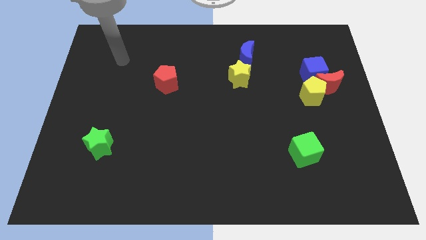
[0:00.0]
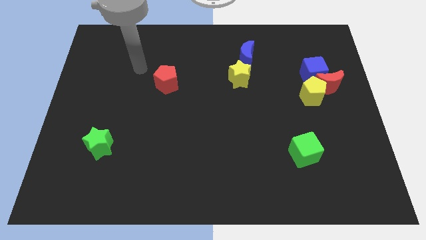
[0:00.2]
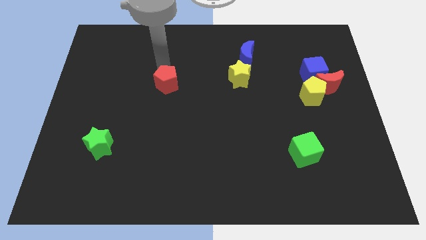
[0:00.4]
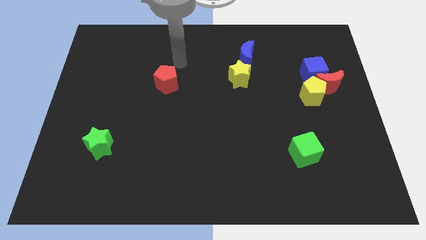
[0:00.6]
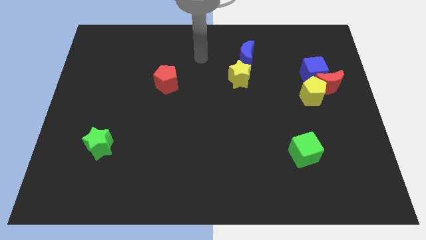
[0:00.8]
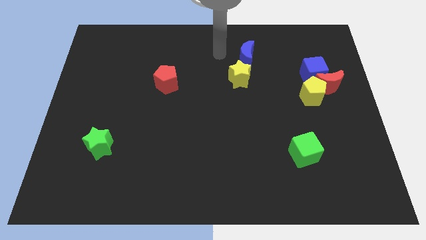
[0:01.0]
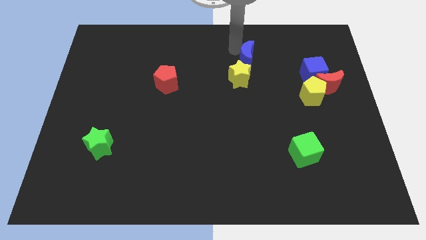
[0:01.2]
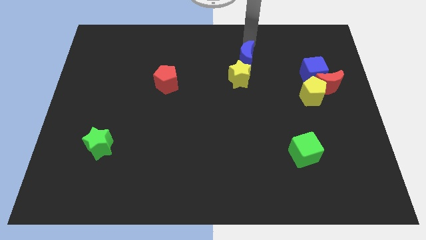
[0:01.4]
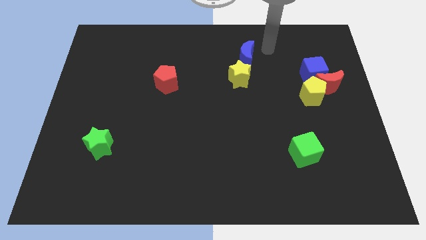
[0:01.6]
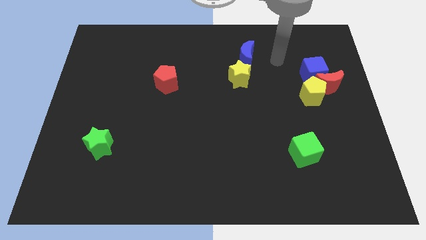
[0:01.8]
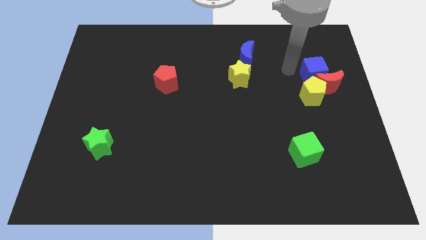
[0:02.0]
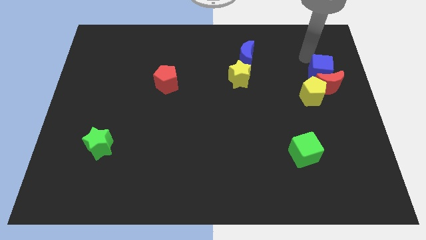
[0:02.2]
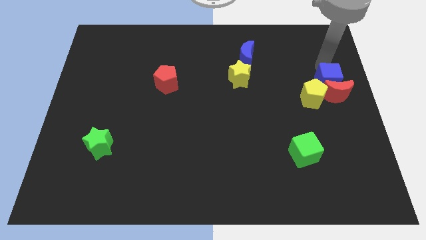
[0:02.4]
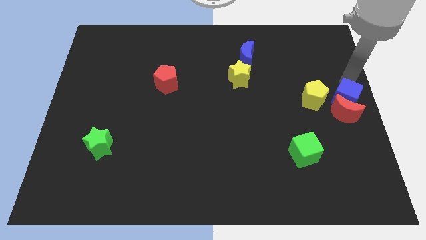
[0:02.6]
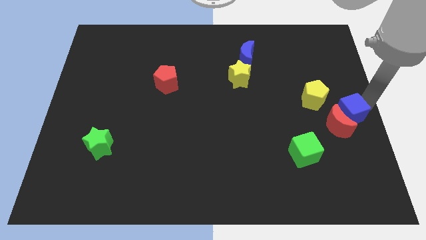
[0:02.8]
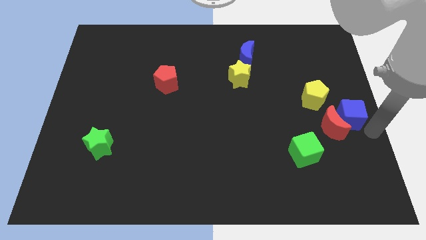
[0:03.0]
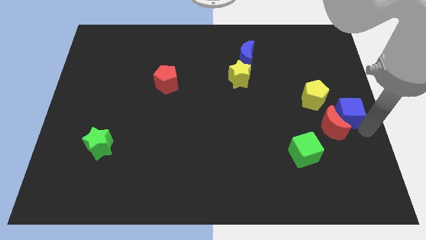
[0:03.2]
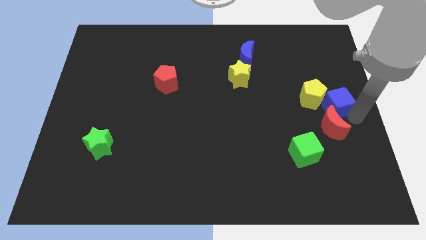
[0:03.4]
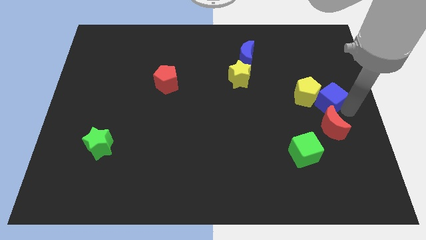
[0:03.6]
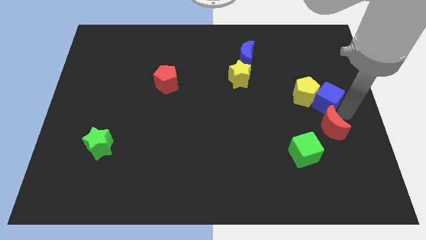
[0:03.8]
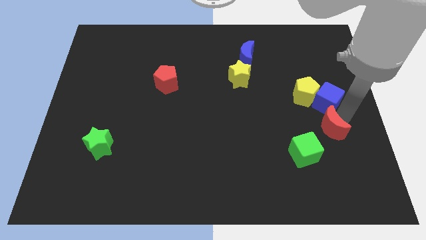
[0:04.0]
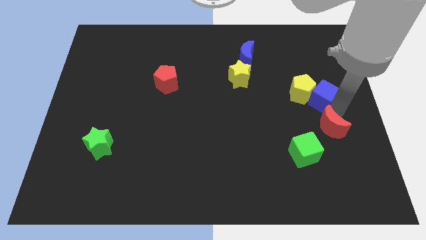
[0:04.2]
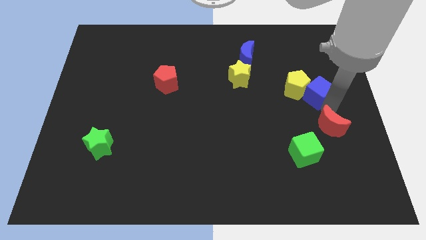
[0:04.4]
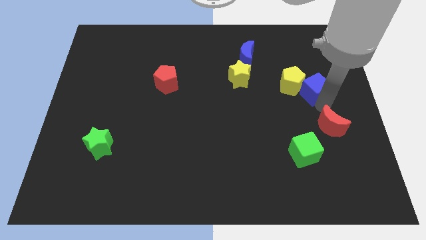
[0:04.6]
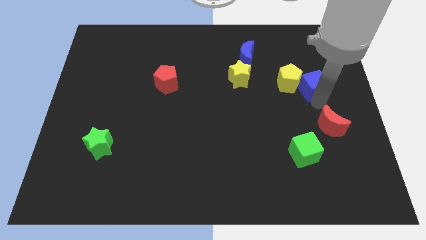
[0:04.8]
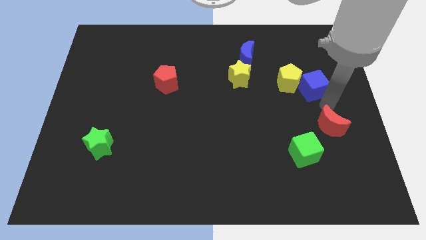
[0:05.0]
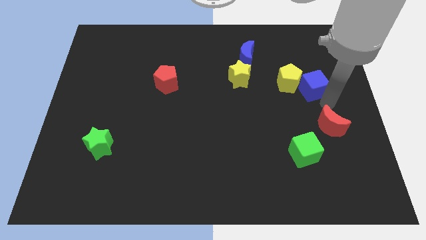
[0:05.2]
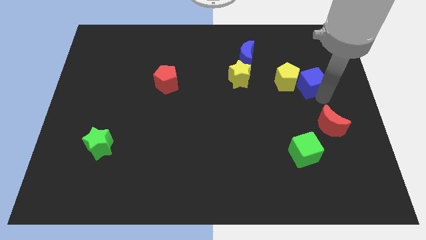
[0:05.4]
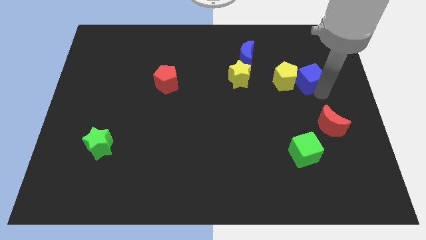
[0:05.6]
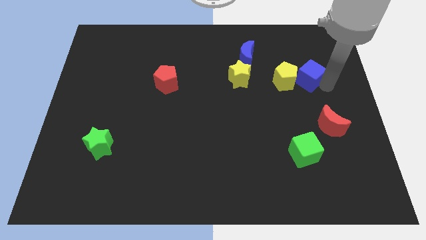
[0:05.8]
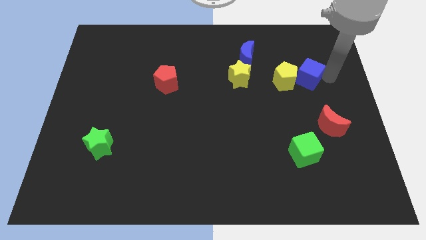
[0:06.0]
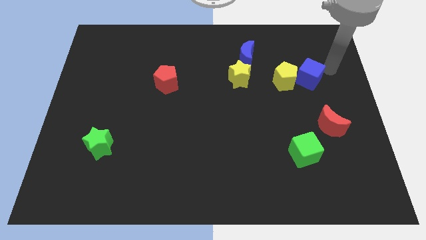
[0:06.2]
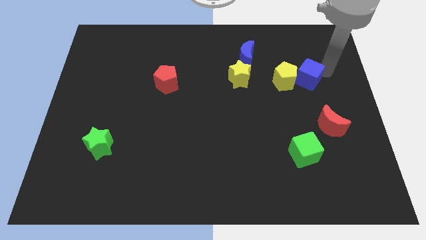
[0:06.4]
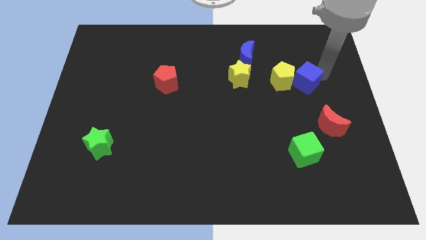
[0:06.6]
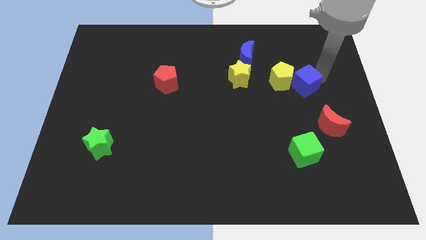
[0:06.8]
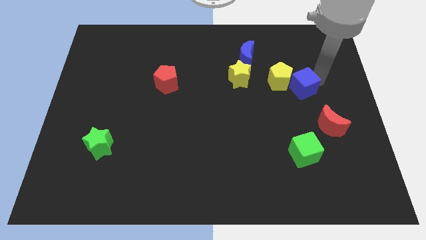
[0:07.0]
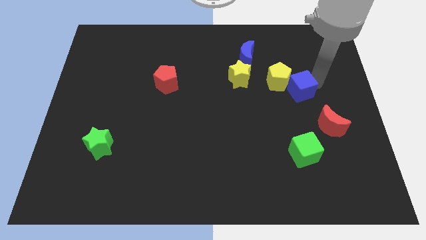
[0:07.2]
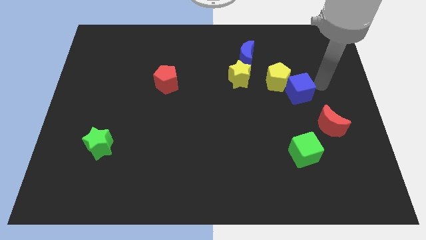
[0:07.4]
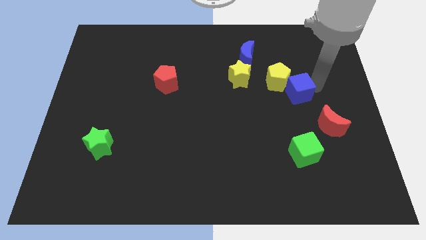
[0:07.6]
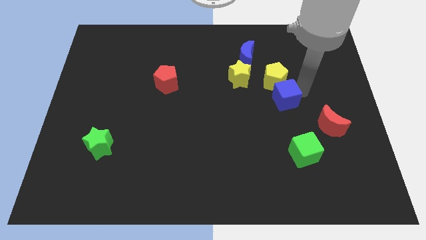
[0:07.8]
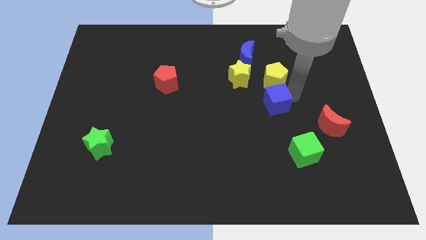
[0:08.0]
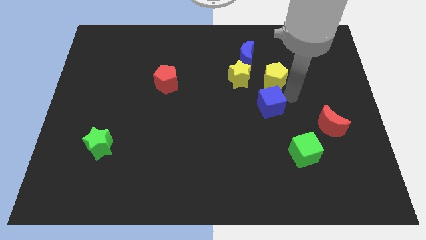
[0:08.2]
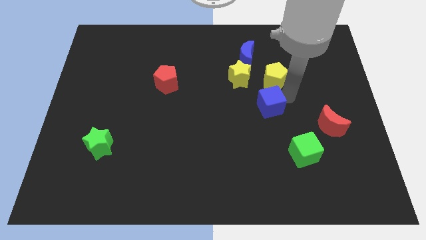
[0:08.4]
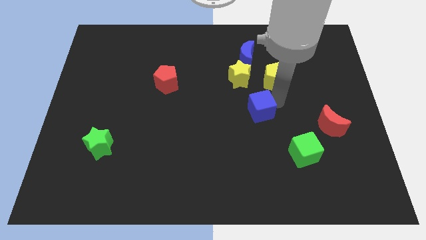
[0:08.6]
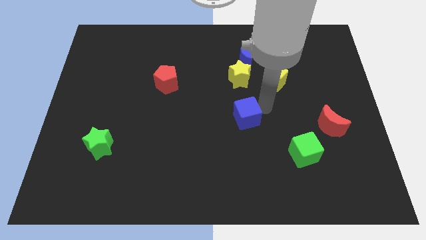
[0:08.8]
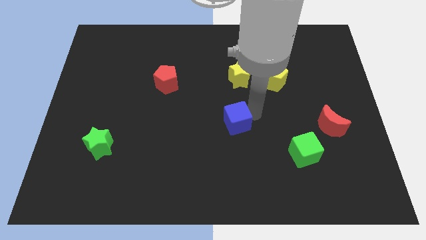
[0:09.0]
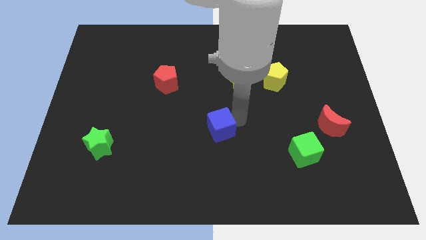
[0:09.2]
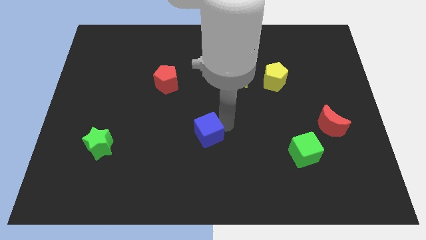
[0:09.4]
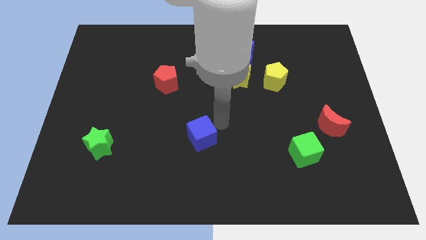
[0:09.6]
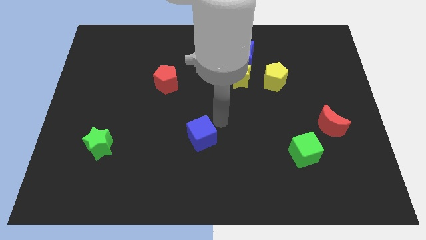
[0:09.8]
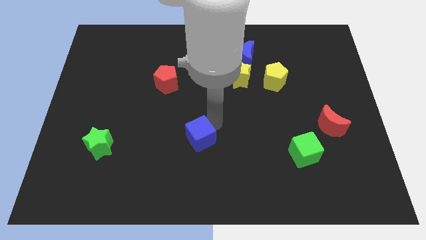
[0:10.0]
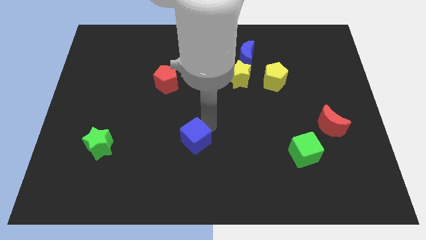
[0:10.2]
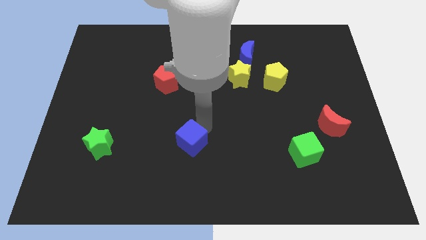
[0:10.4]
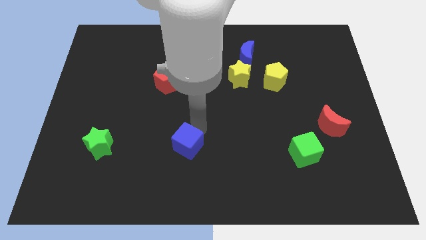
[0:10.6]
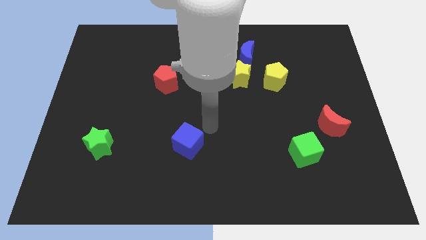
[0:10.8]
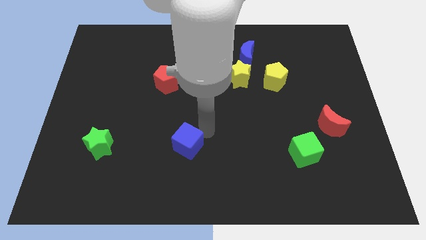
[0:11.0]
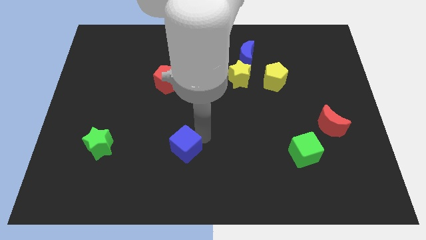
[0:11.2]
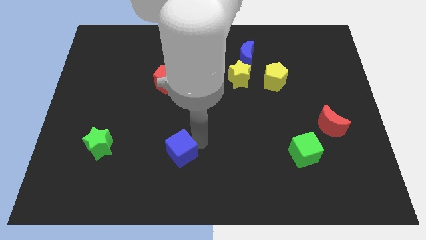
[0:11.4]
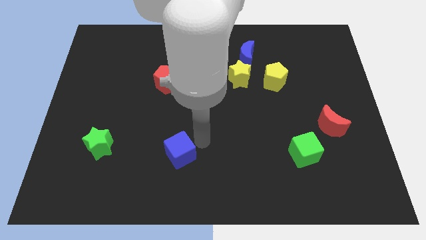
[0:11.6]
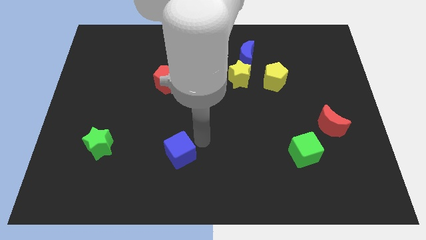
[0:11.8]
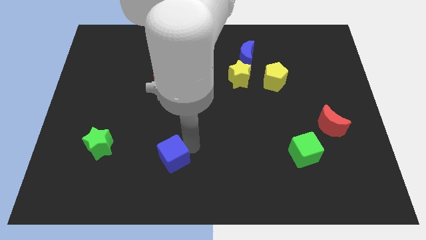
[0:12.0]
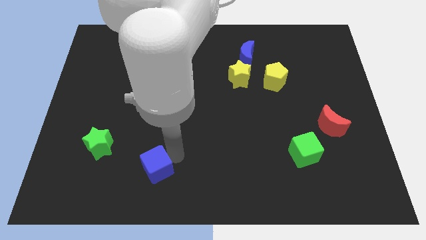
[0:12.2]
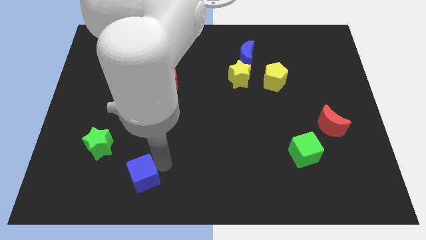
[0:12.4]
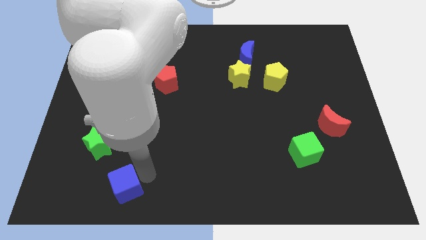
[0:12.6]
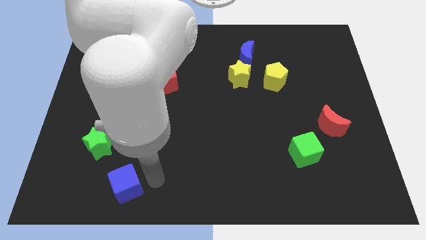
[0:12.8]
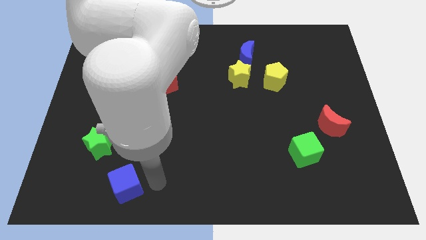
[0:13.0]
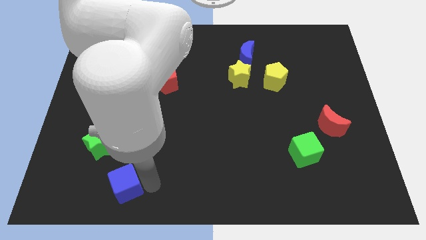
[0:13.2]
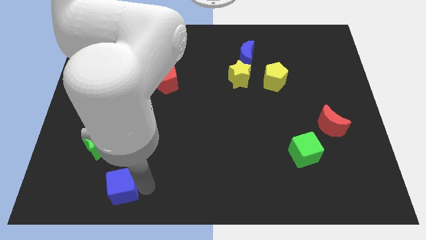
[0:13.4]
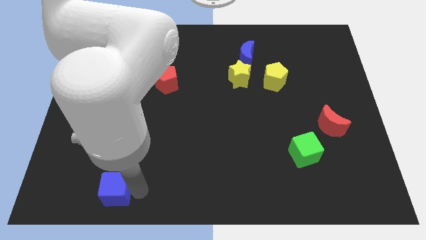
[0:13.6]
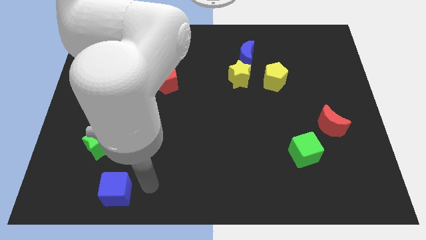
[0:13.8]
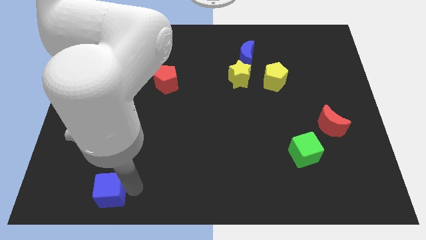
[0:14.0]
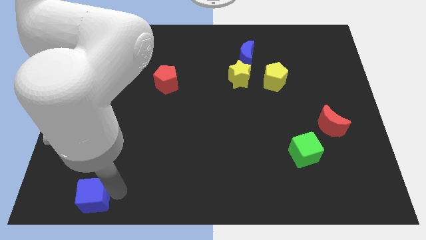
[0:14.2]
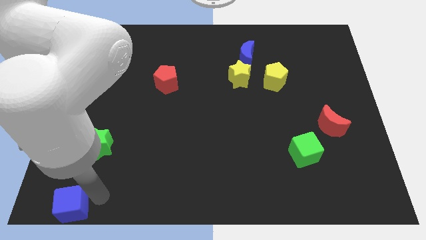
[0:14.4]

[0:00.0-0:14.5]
slide the blue cube to the bottom left corner
